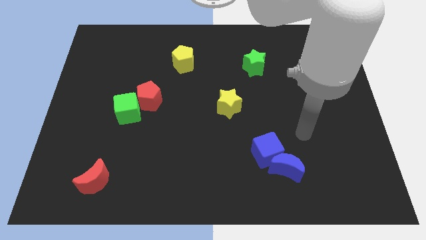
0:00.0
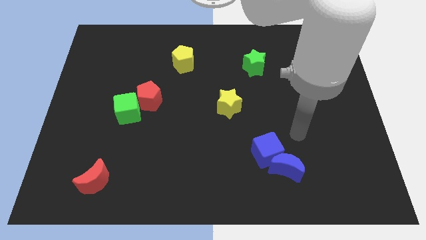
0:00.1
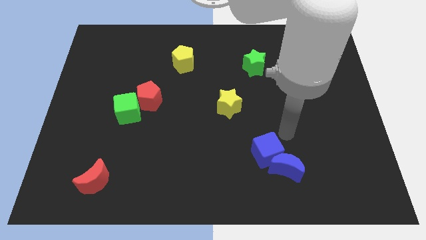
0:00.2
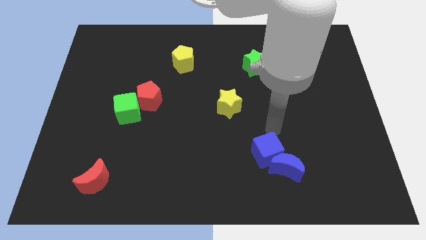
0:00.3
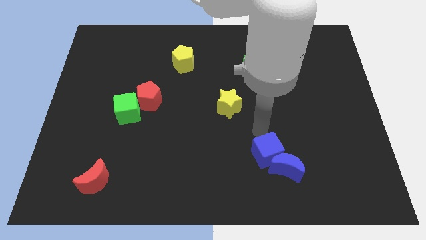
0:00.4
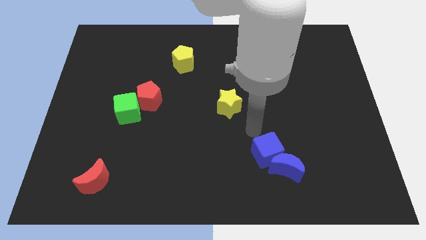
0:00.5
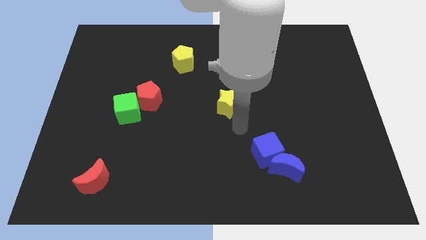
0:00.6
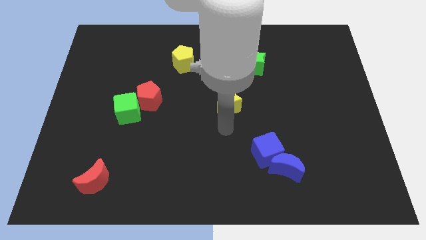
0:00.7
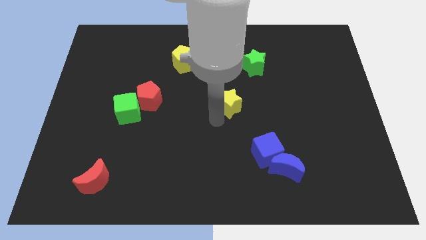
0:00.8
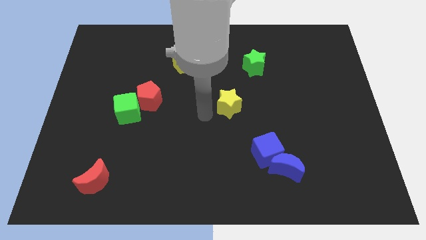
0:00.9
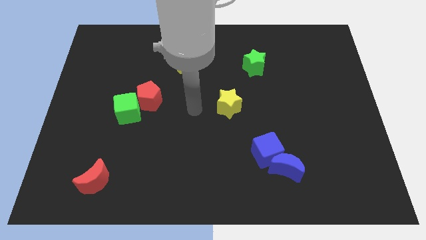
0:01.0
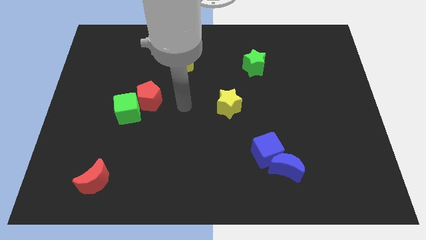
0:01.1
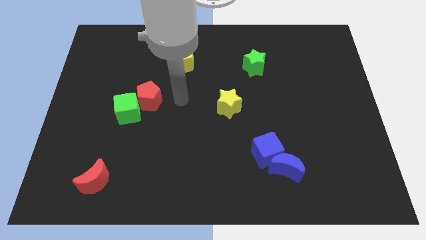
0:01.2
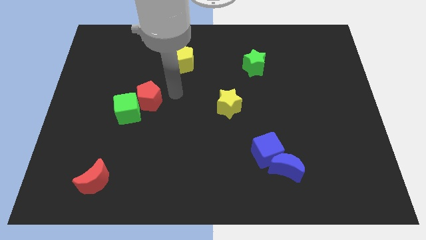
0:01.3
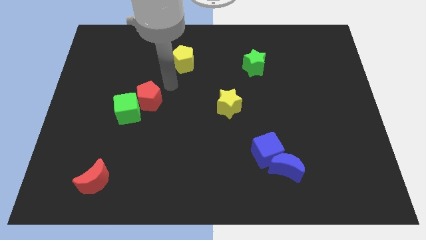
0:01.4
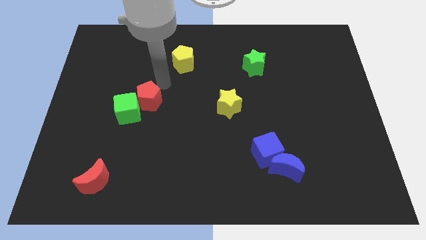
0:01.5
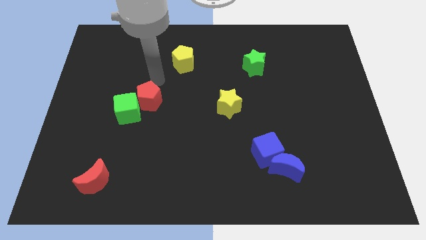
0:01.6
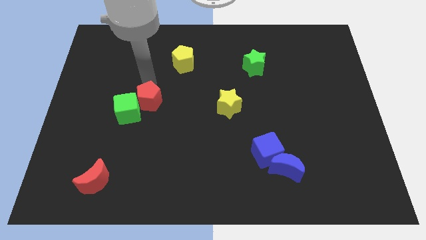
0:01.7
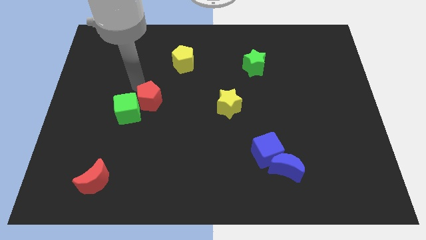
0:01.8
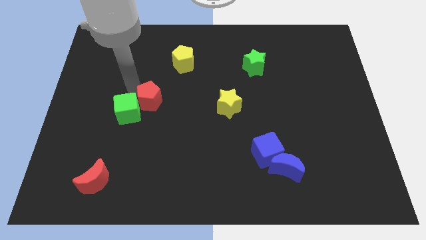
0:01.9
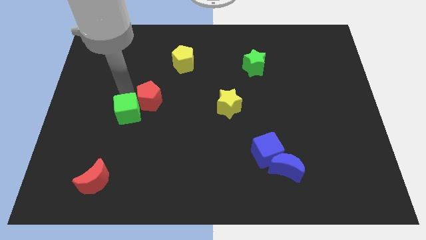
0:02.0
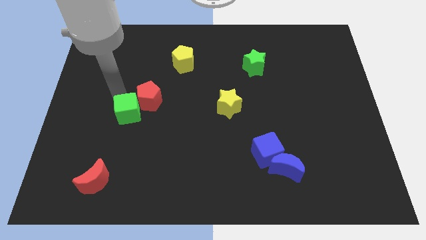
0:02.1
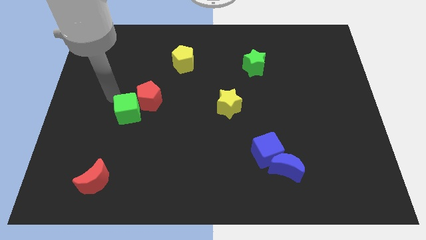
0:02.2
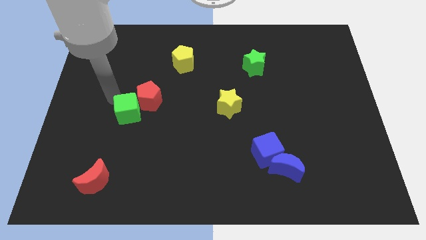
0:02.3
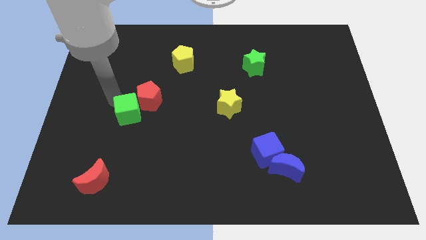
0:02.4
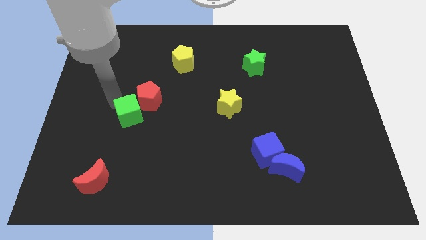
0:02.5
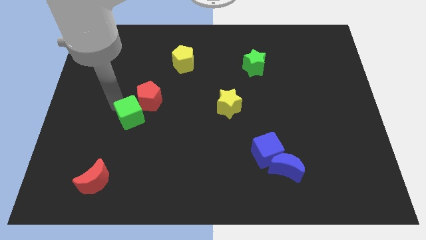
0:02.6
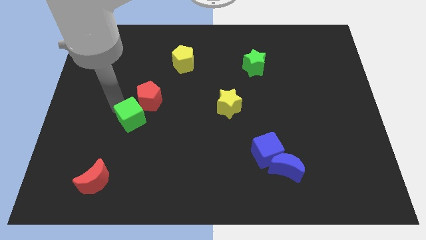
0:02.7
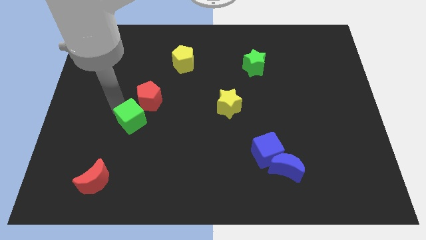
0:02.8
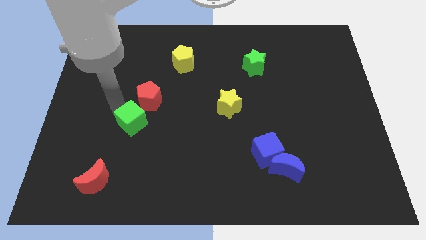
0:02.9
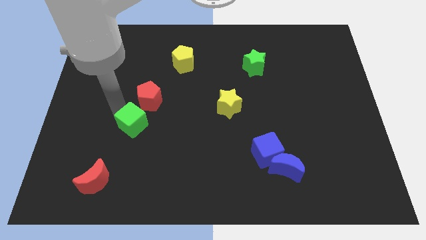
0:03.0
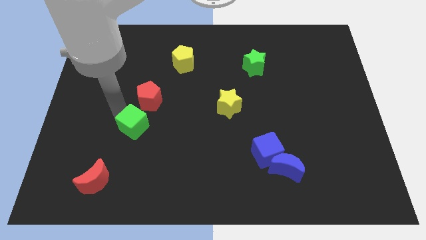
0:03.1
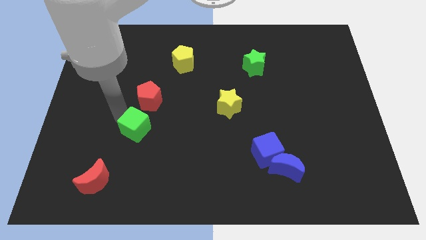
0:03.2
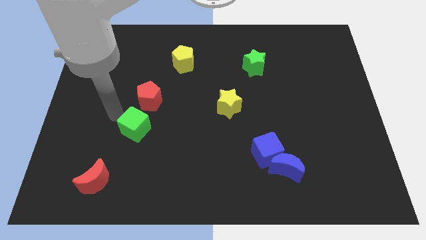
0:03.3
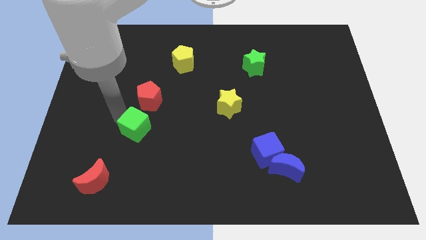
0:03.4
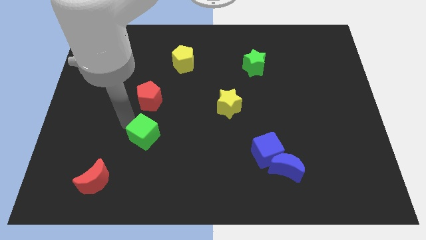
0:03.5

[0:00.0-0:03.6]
slightly slide the green cube diagonally down and right

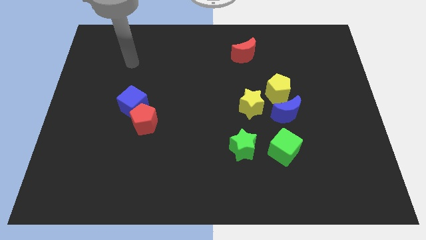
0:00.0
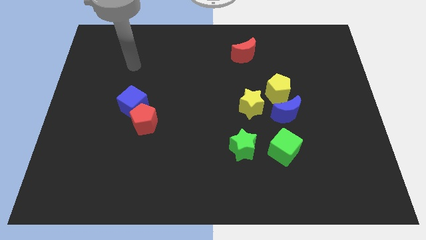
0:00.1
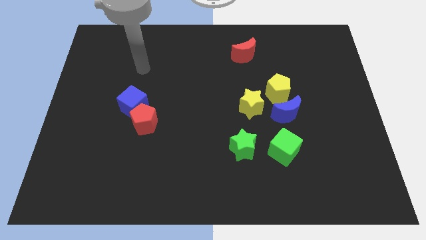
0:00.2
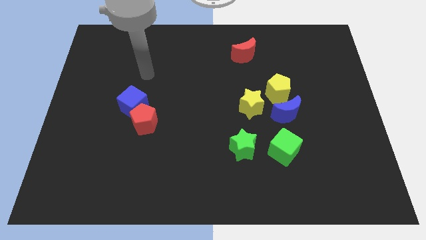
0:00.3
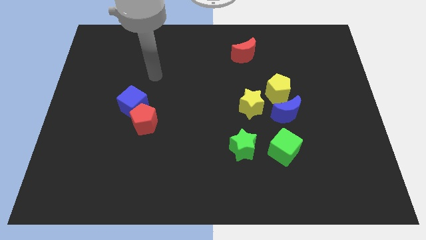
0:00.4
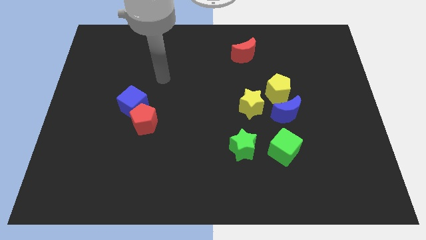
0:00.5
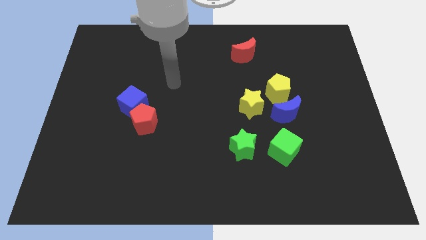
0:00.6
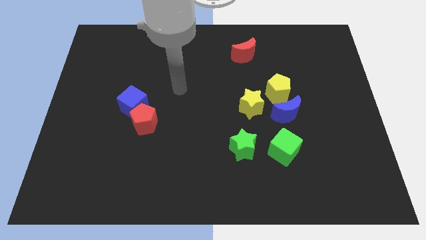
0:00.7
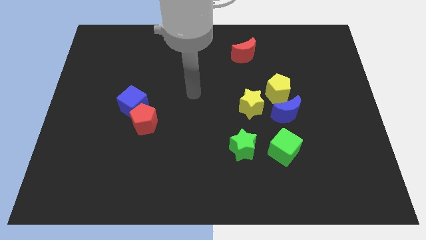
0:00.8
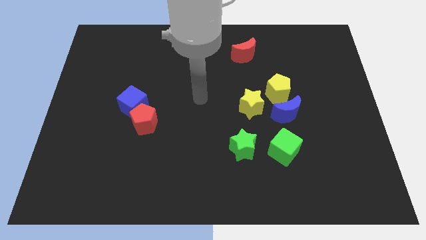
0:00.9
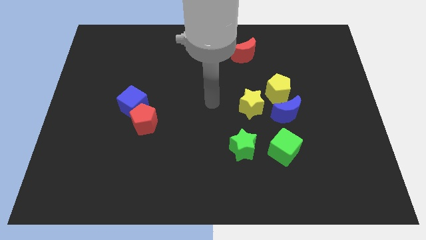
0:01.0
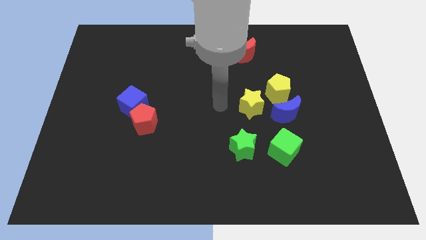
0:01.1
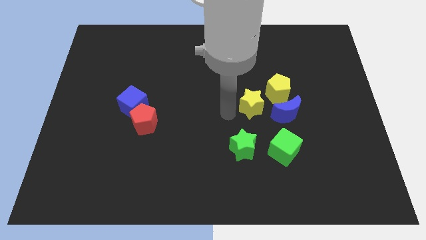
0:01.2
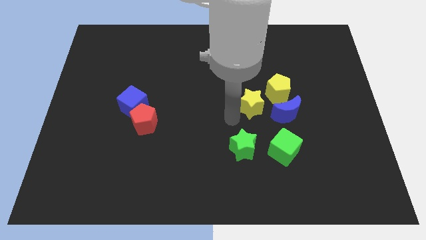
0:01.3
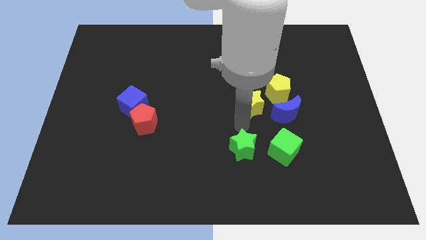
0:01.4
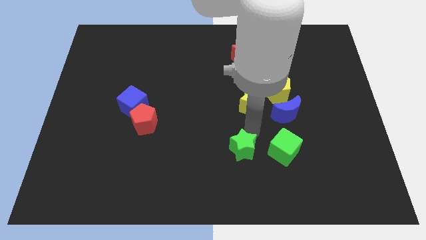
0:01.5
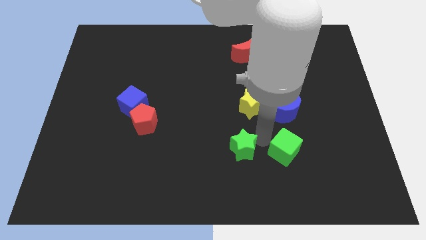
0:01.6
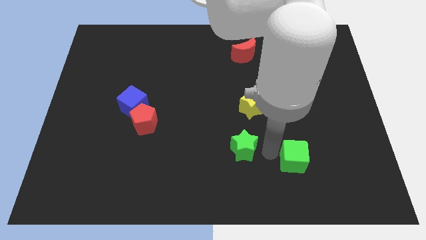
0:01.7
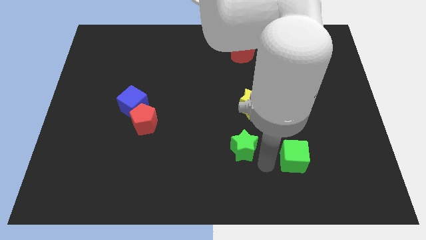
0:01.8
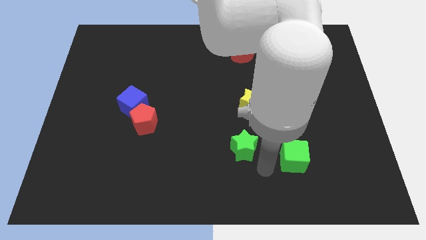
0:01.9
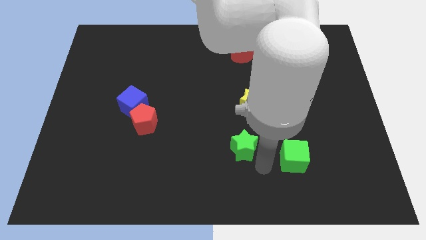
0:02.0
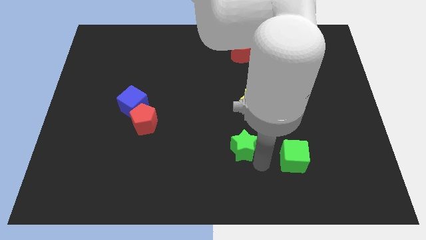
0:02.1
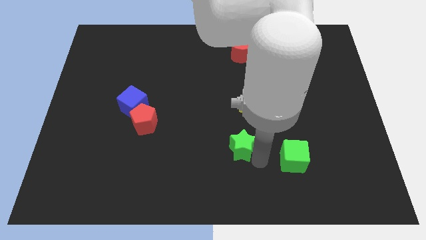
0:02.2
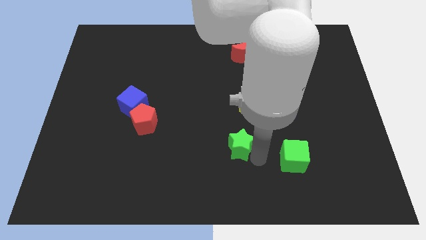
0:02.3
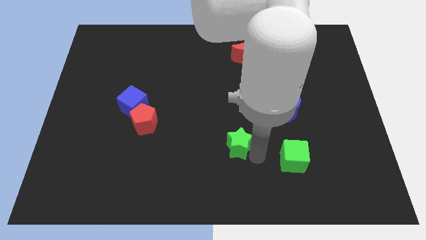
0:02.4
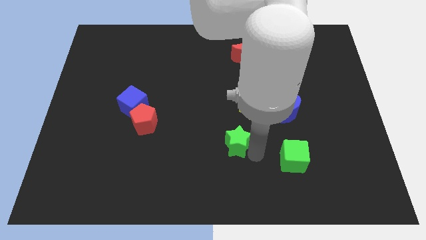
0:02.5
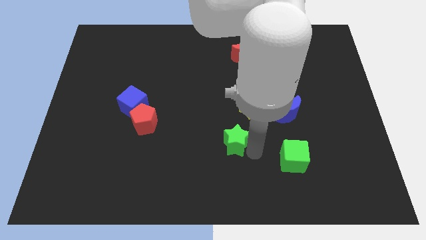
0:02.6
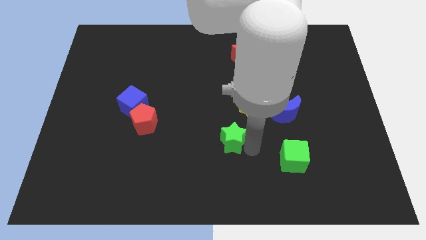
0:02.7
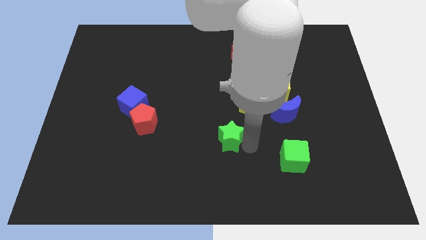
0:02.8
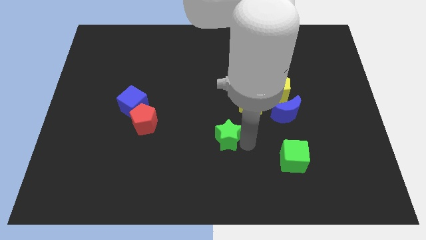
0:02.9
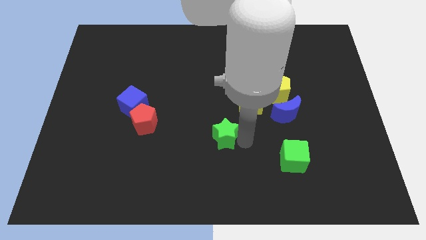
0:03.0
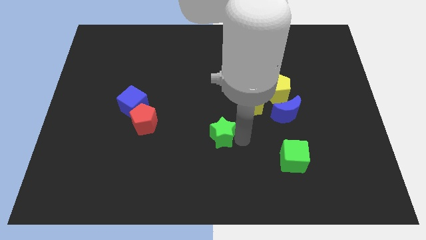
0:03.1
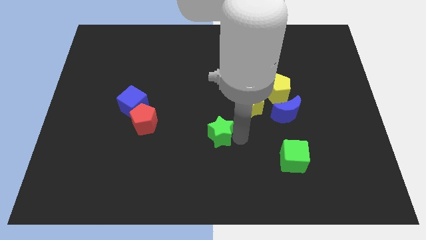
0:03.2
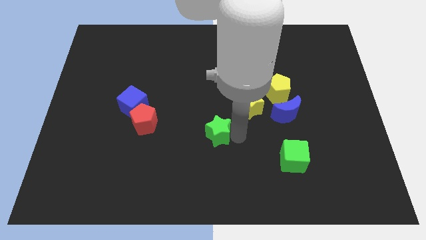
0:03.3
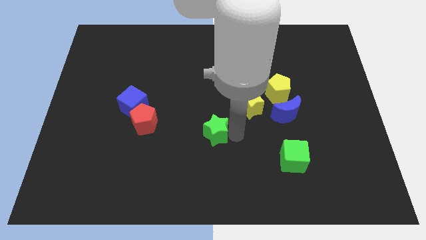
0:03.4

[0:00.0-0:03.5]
push the green star up and then to the left slightly

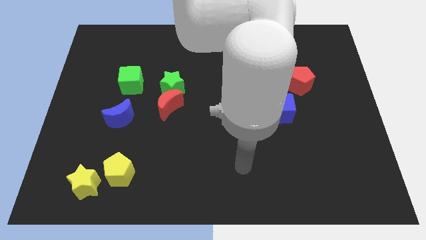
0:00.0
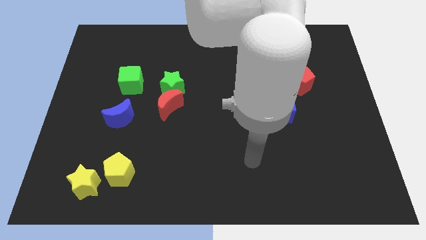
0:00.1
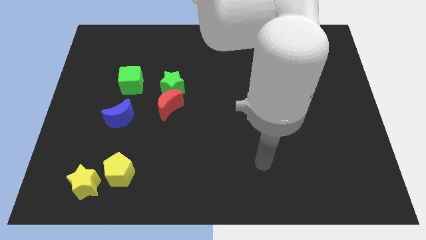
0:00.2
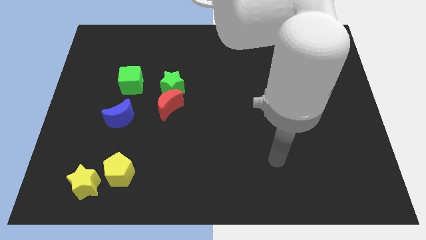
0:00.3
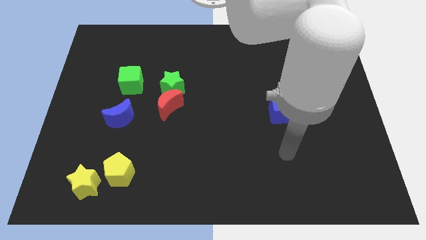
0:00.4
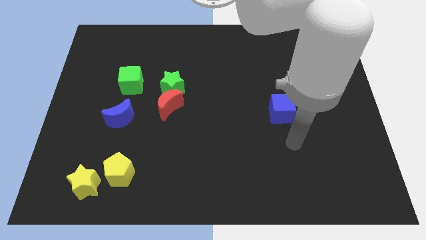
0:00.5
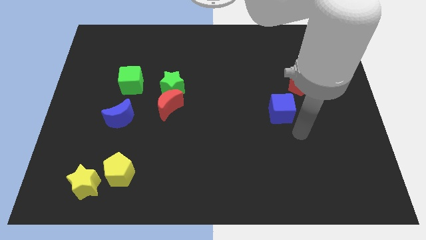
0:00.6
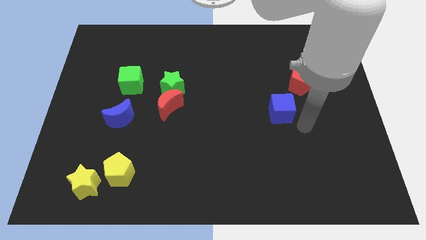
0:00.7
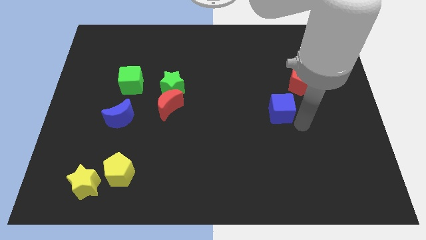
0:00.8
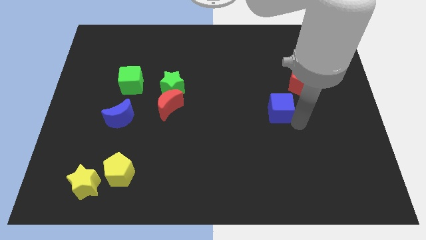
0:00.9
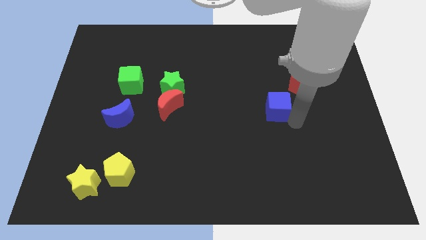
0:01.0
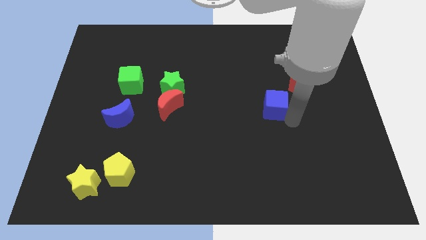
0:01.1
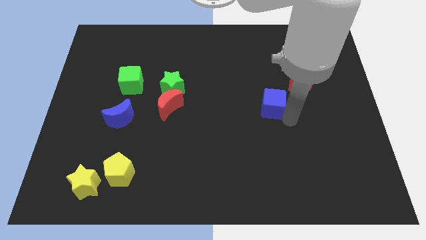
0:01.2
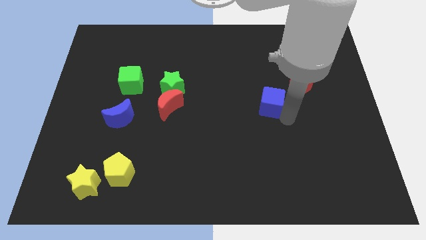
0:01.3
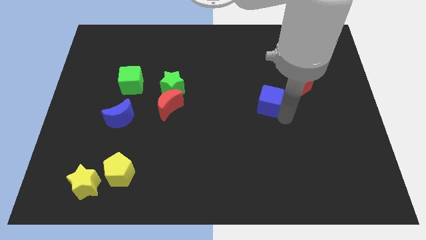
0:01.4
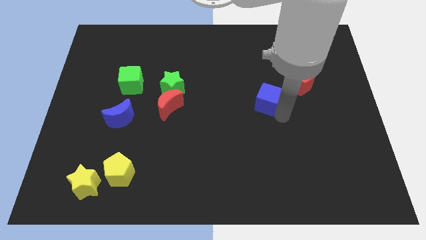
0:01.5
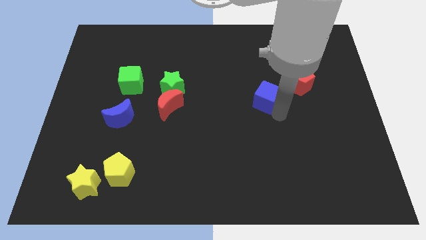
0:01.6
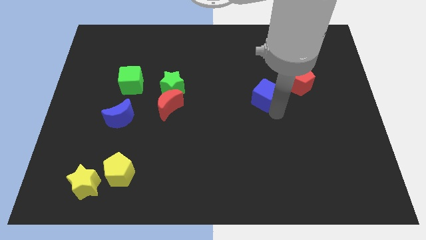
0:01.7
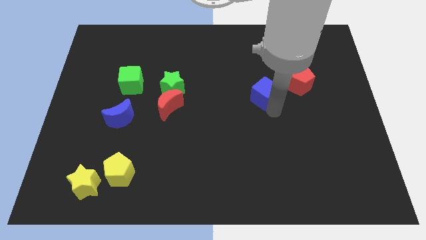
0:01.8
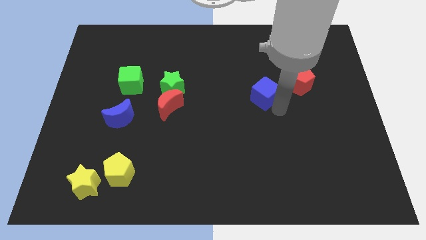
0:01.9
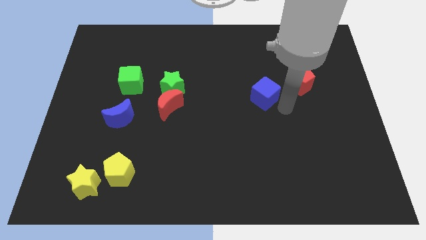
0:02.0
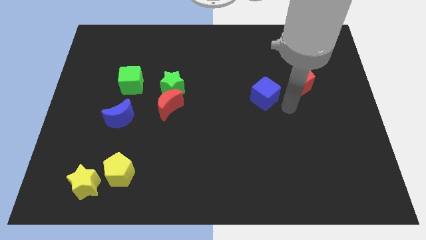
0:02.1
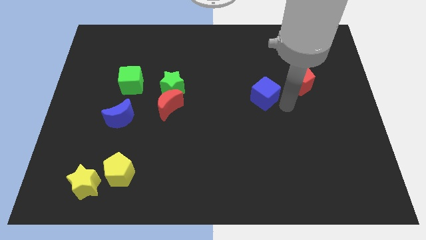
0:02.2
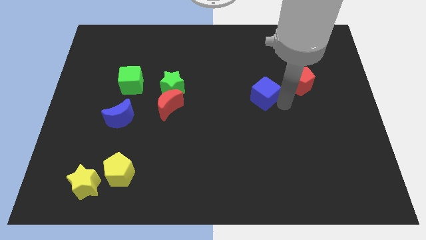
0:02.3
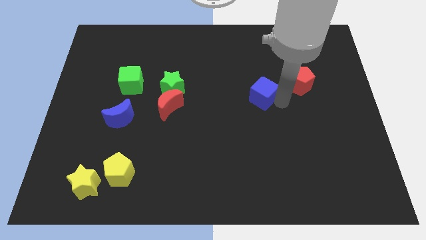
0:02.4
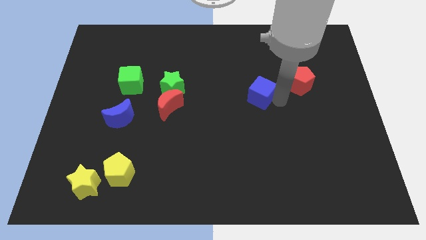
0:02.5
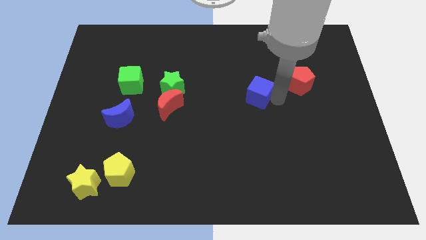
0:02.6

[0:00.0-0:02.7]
push the blue cube slightly upwards and left diagonally
